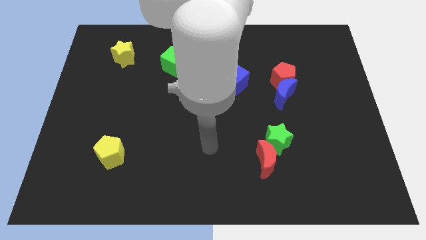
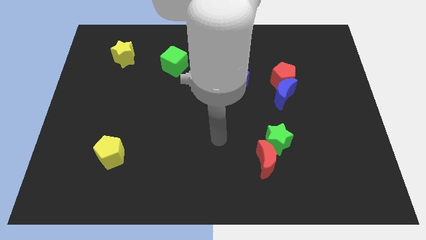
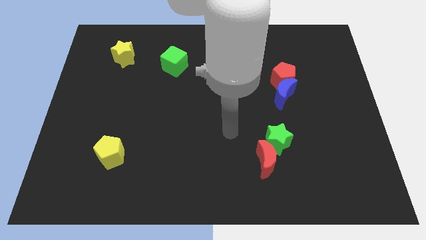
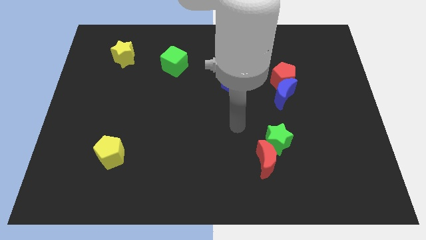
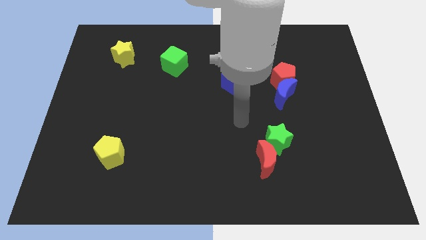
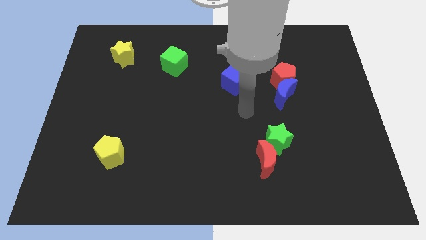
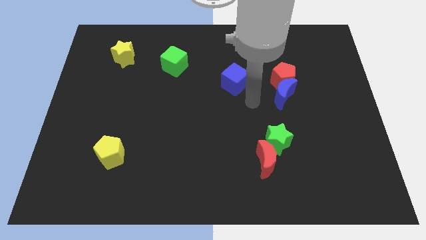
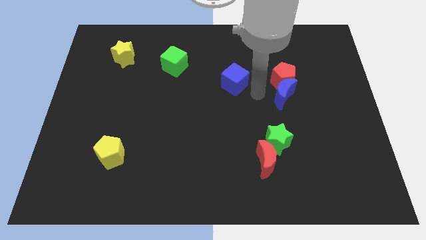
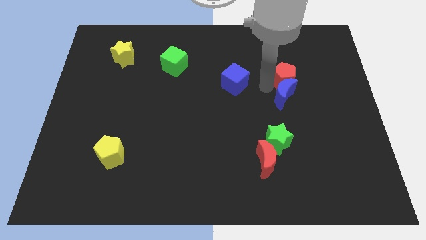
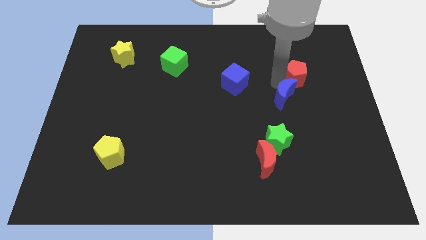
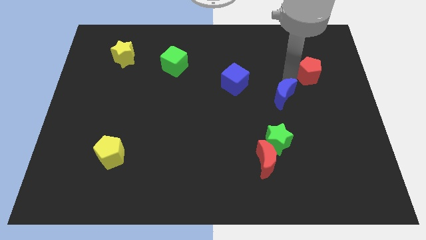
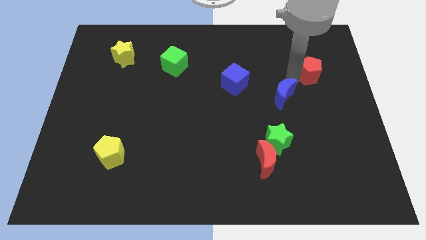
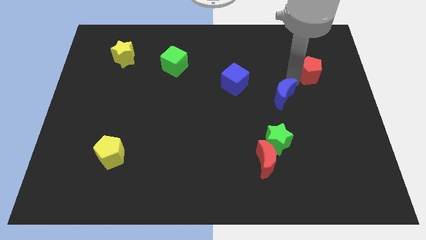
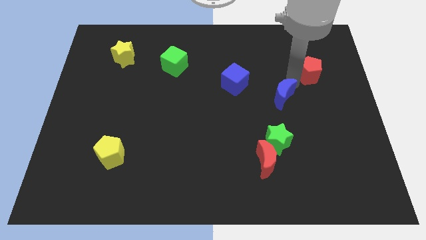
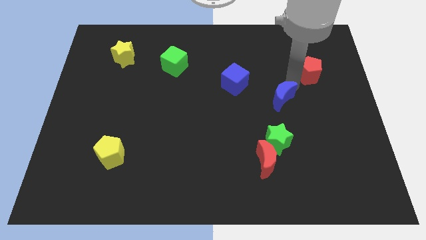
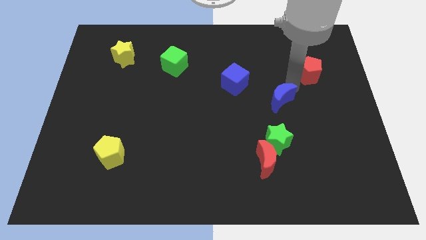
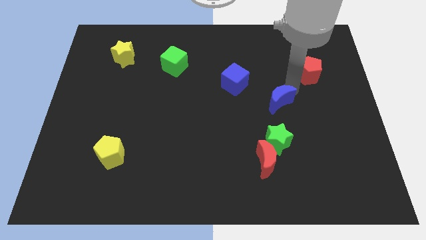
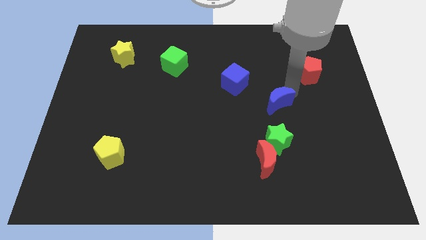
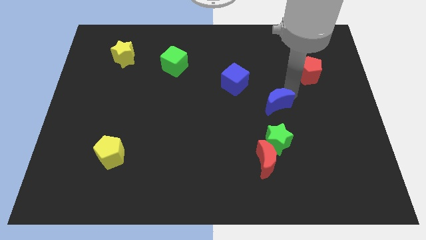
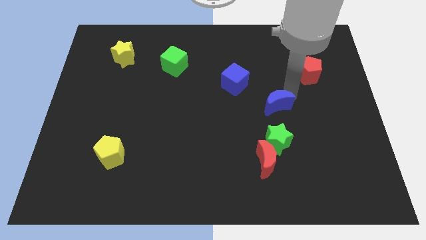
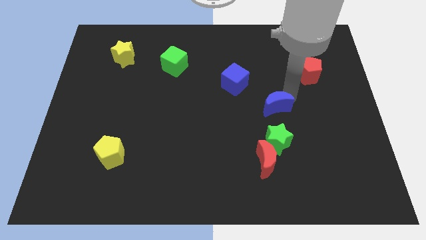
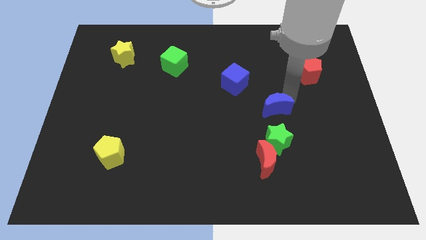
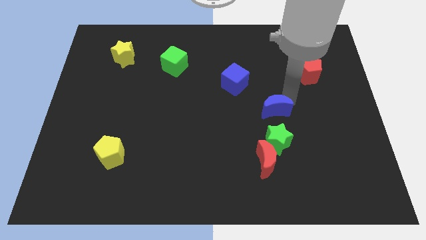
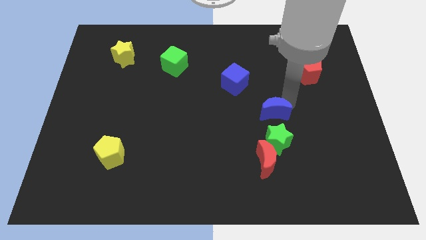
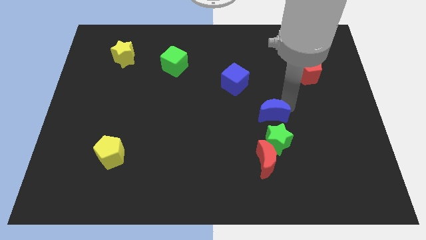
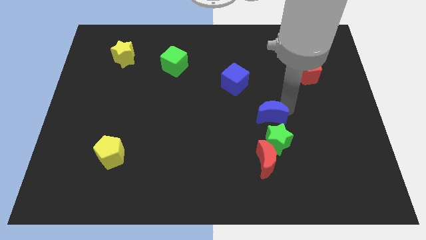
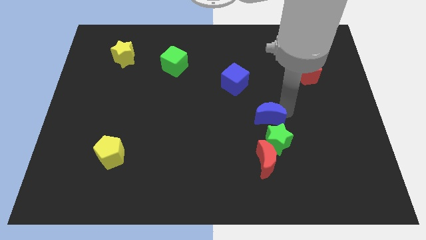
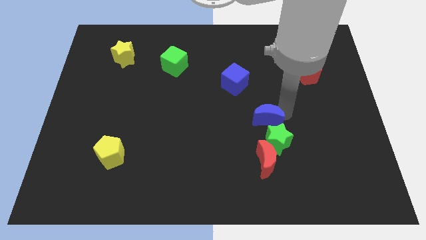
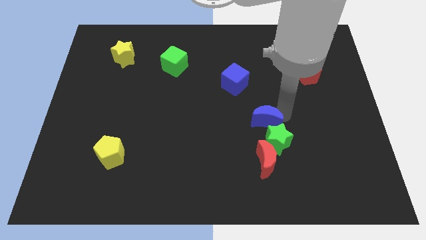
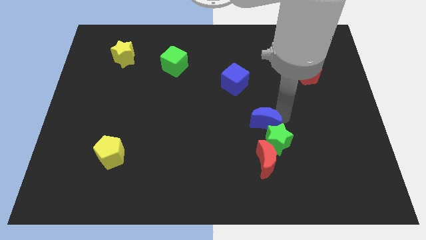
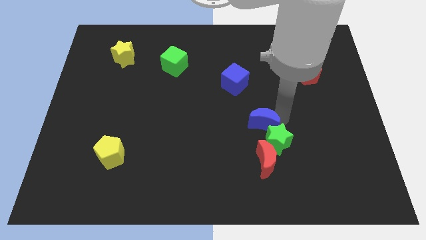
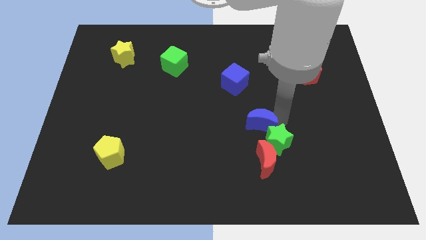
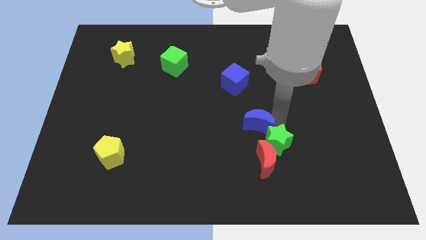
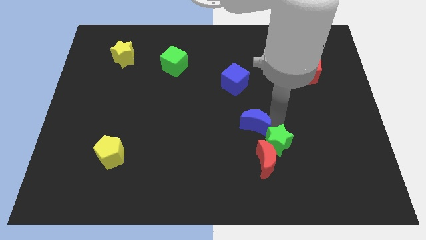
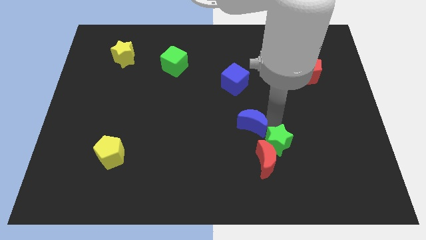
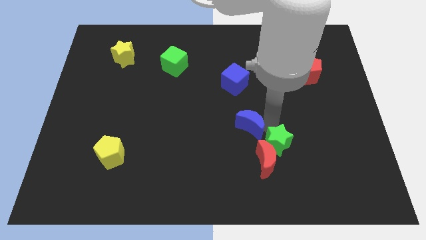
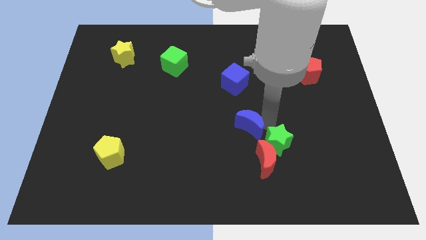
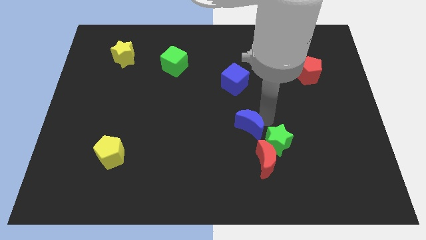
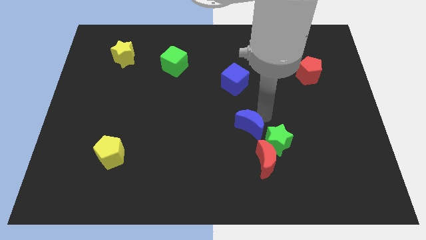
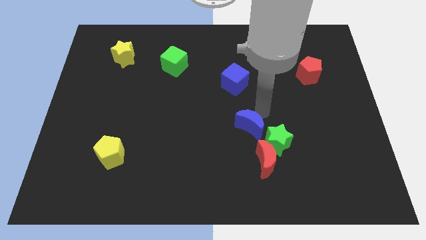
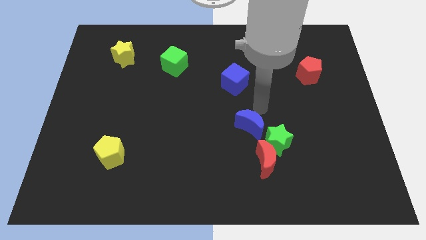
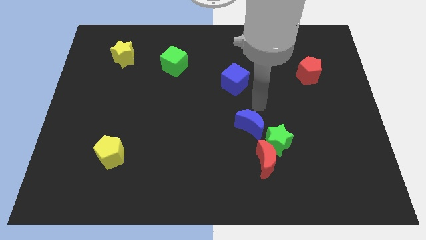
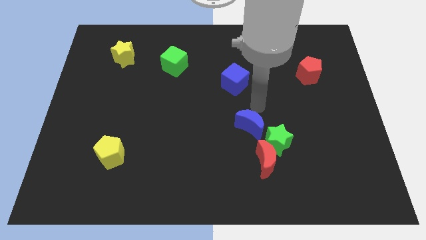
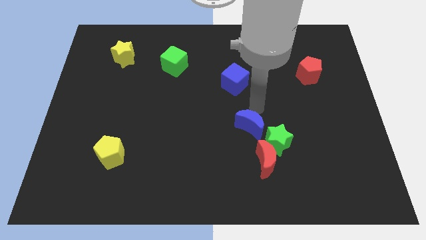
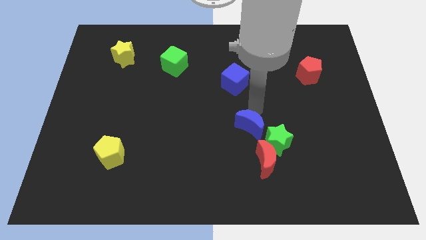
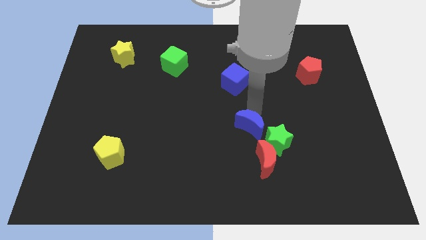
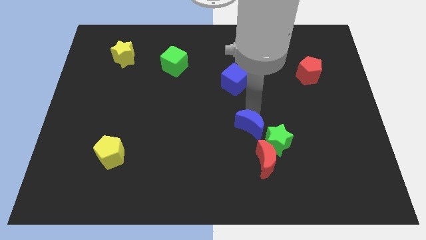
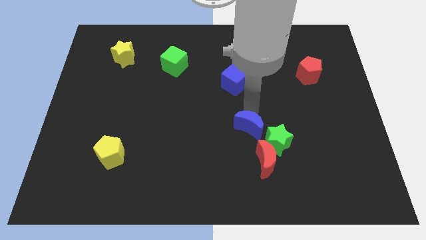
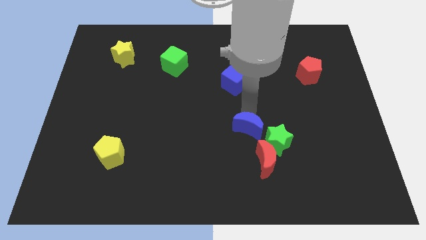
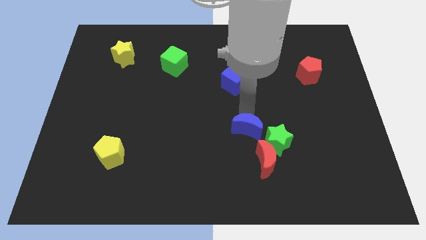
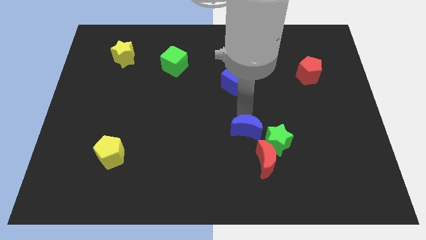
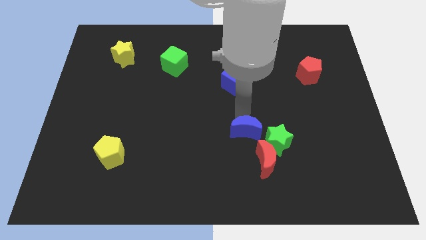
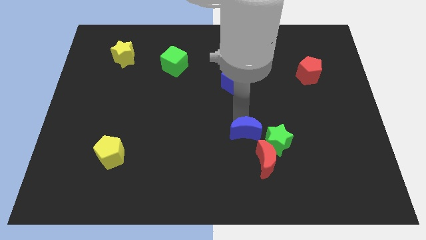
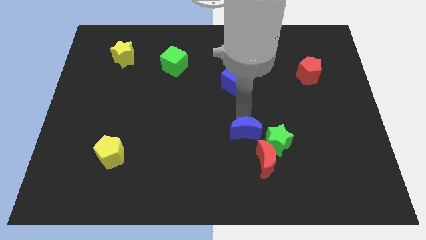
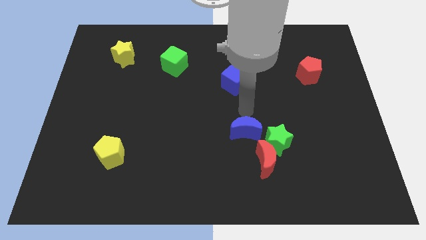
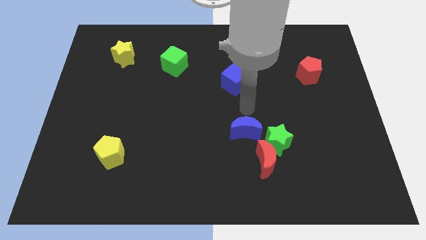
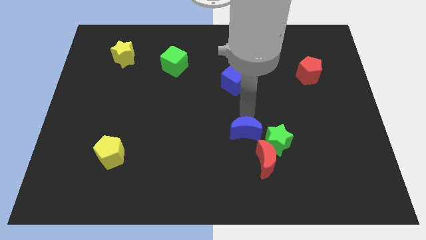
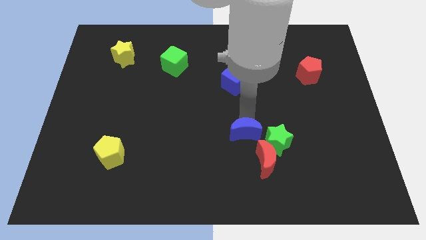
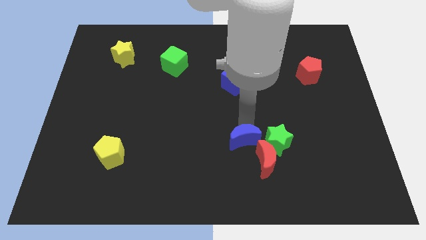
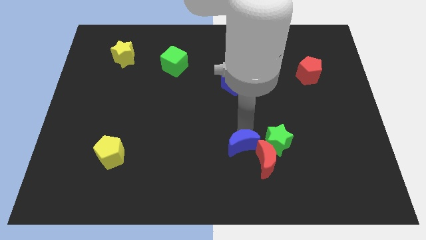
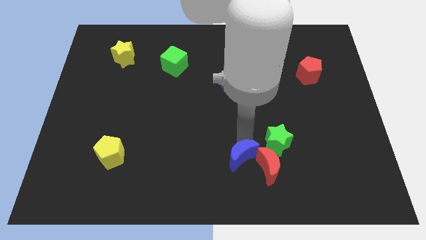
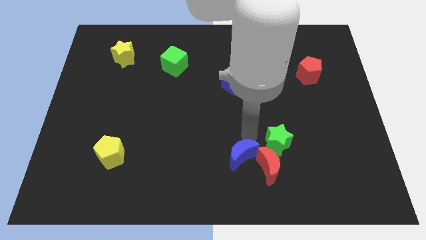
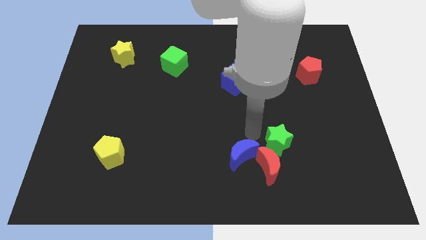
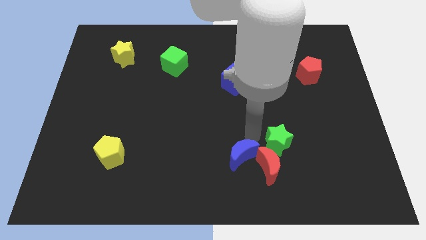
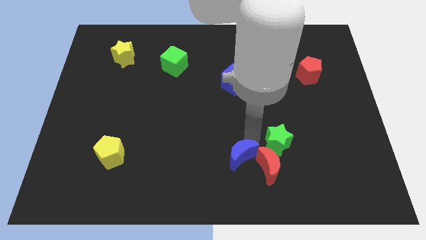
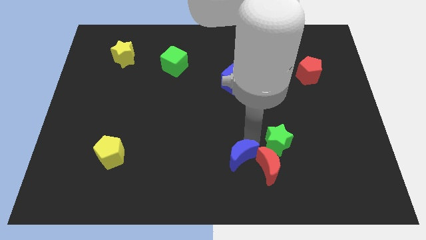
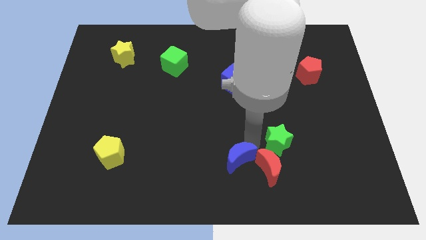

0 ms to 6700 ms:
move the blue moon to the bottom

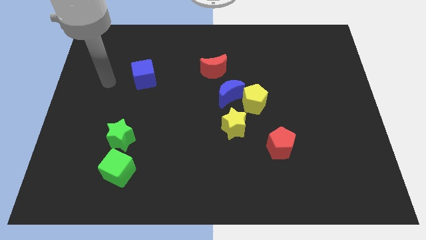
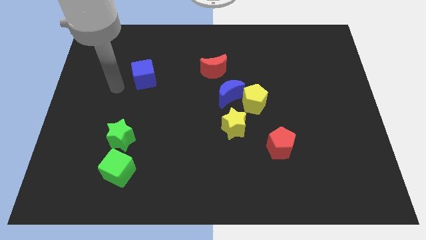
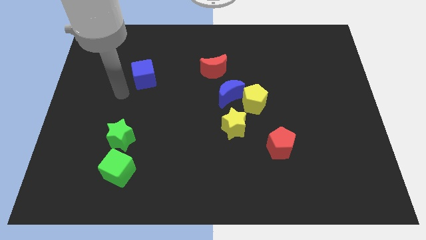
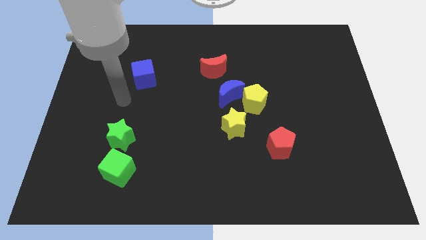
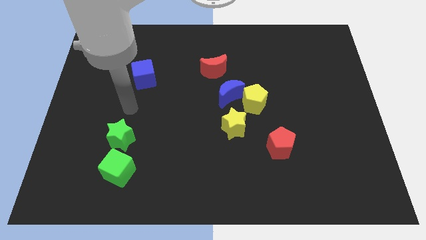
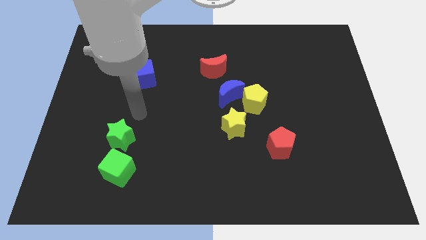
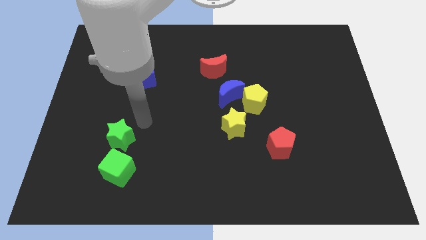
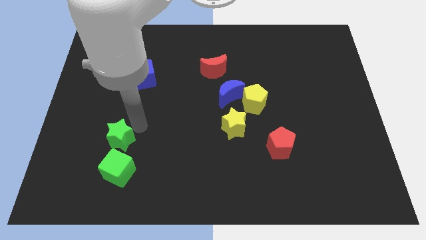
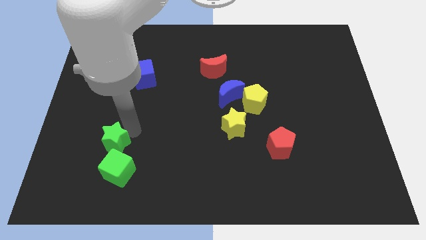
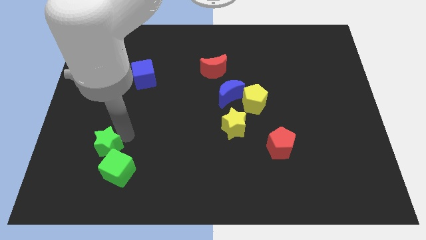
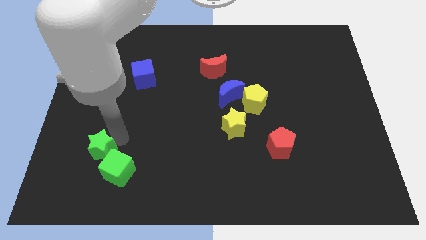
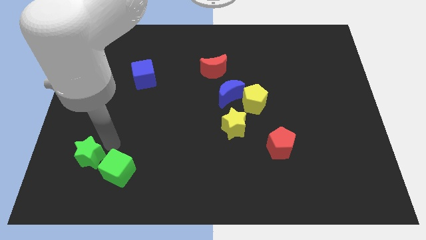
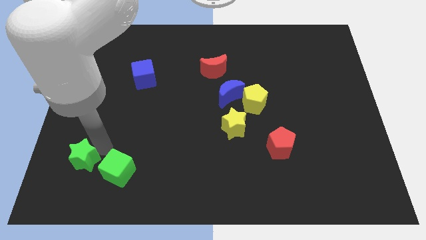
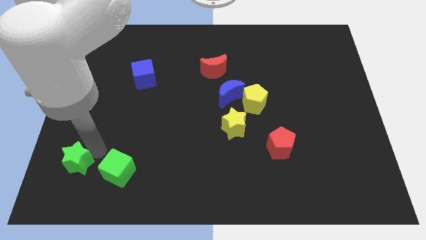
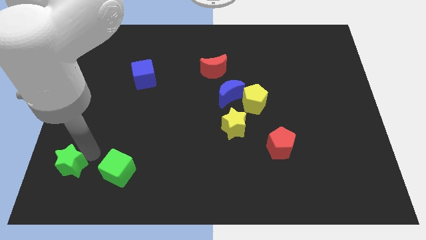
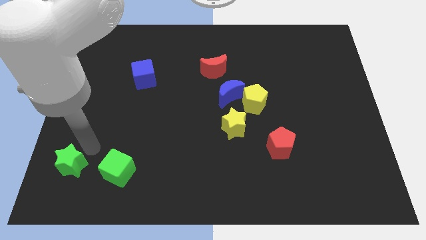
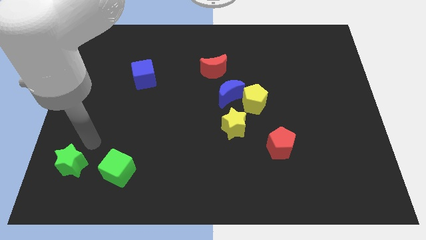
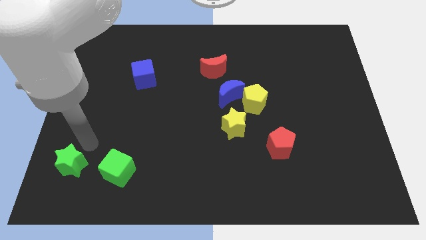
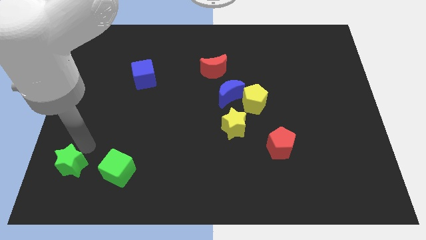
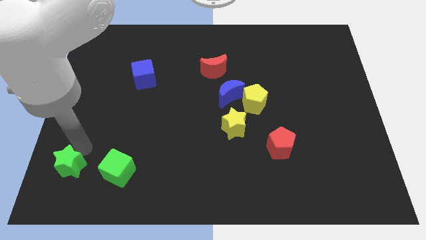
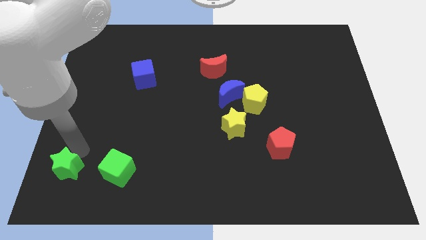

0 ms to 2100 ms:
put the green star to the bottom left
